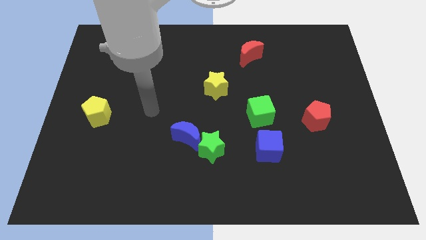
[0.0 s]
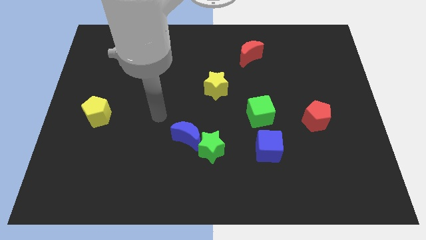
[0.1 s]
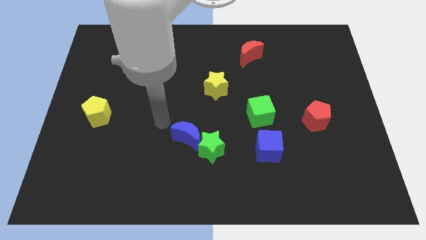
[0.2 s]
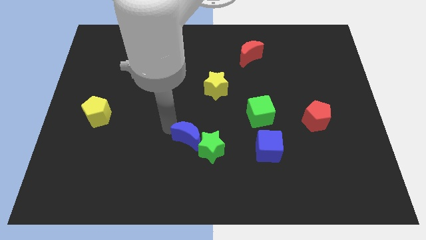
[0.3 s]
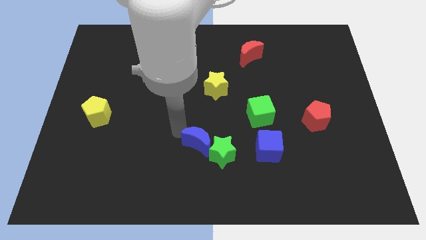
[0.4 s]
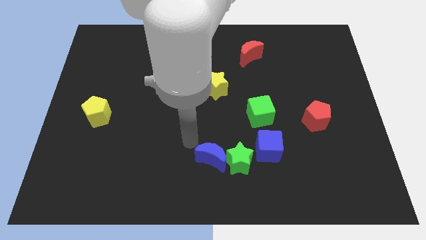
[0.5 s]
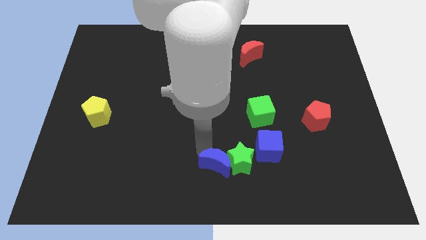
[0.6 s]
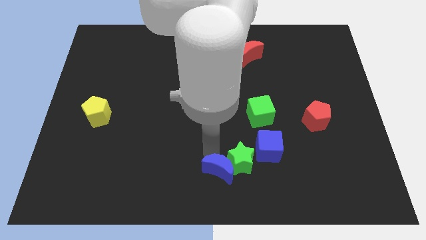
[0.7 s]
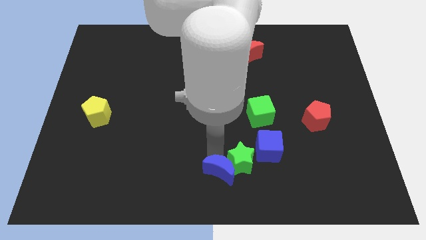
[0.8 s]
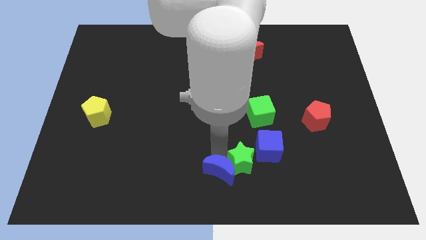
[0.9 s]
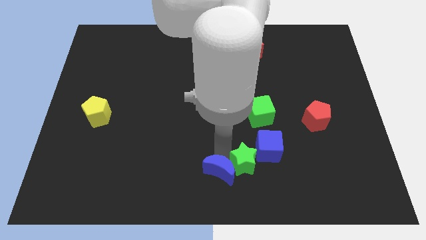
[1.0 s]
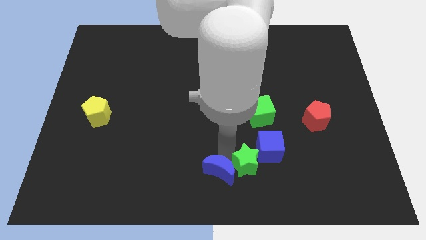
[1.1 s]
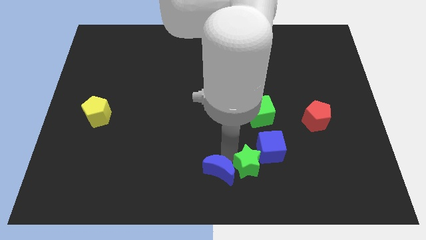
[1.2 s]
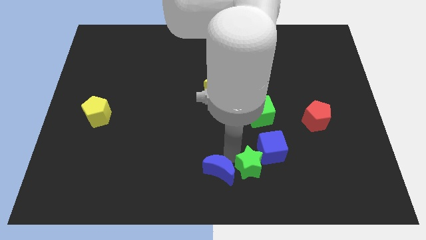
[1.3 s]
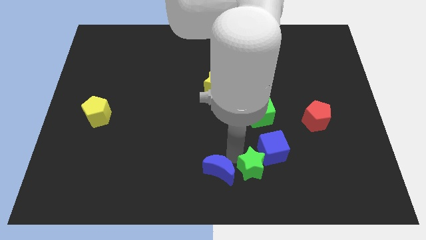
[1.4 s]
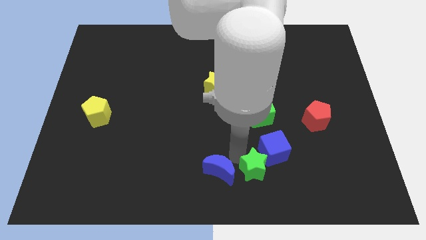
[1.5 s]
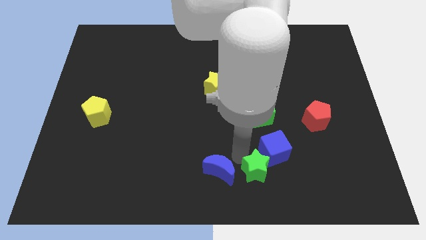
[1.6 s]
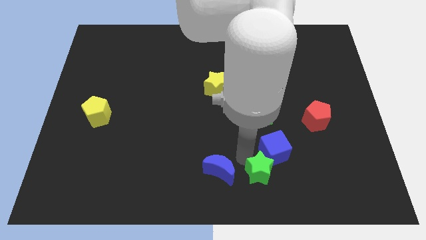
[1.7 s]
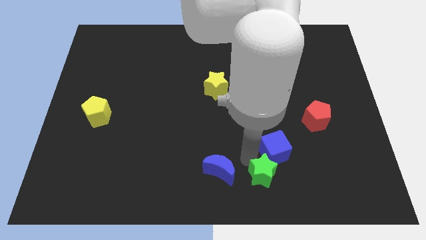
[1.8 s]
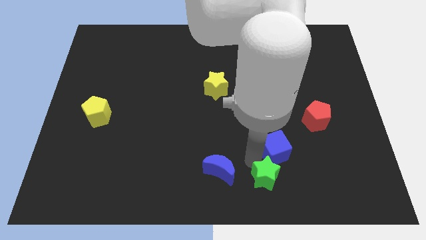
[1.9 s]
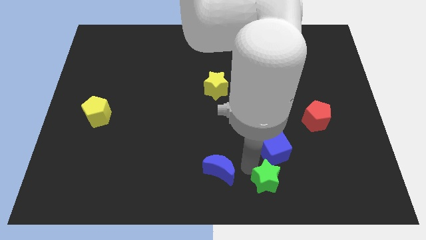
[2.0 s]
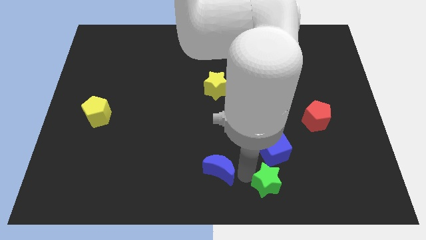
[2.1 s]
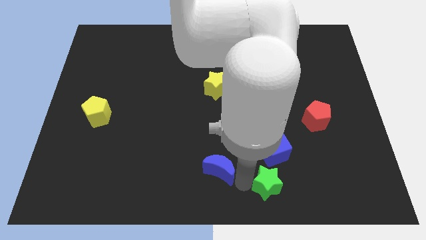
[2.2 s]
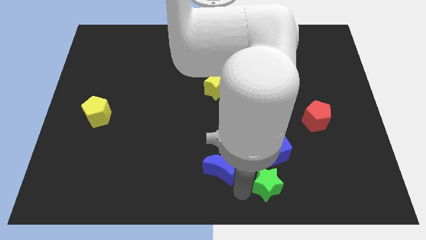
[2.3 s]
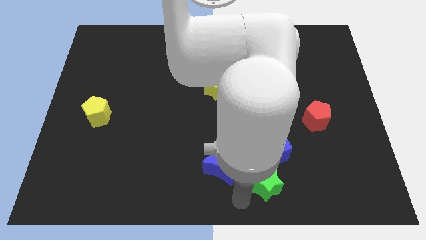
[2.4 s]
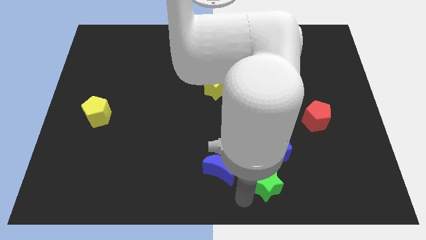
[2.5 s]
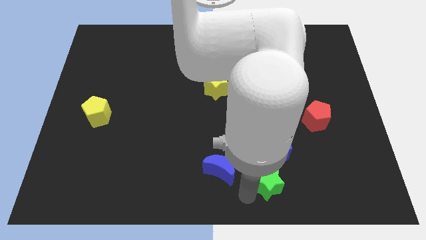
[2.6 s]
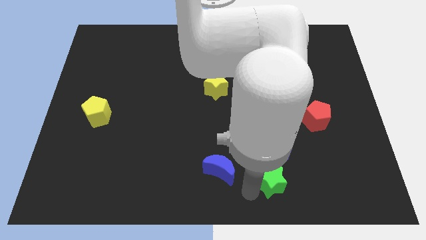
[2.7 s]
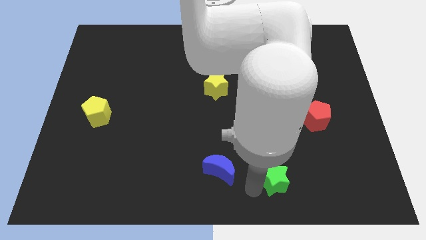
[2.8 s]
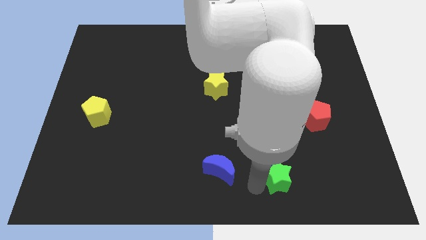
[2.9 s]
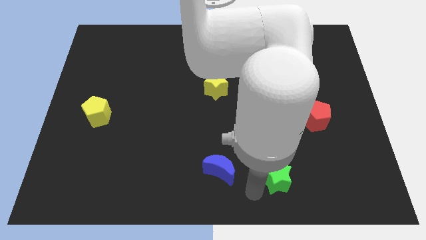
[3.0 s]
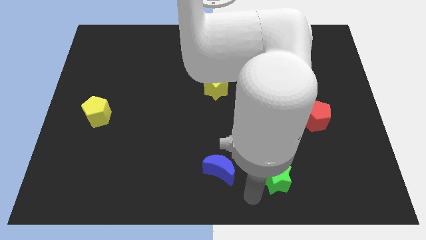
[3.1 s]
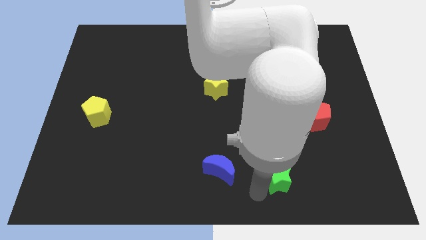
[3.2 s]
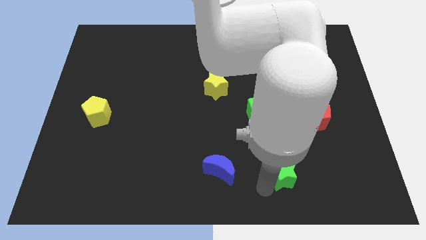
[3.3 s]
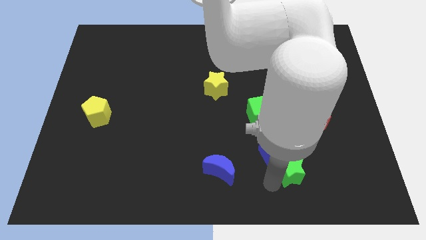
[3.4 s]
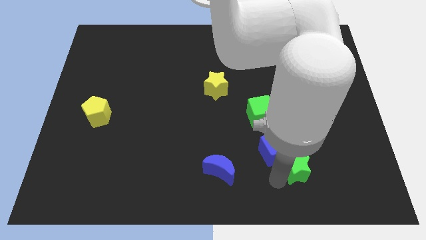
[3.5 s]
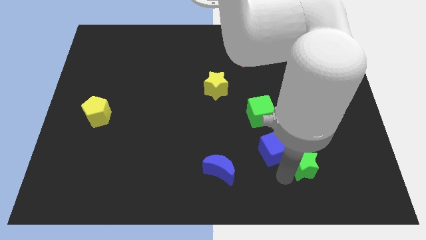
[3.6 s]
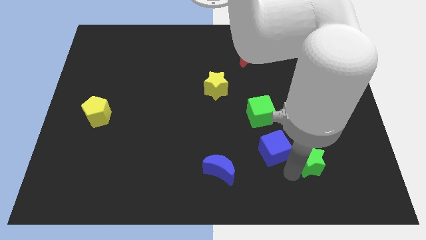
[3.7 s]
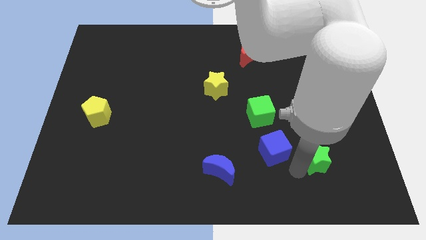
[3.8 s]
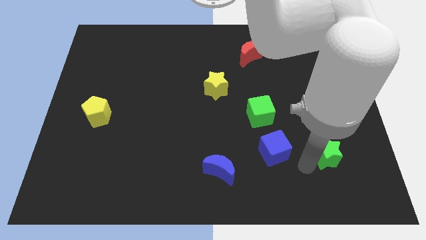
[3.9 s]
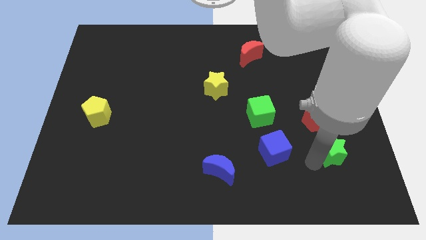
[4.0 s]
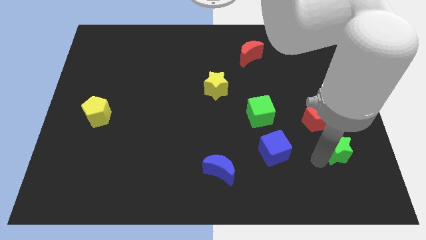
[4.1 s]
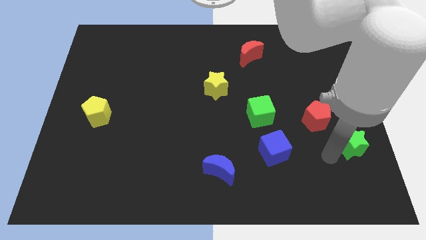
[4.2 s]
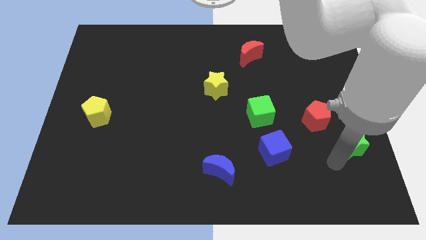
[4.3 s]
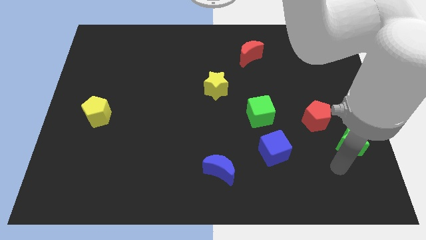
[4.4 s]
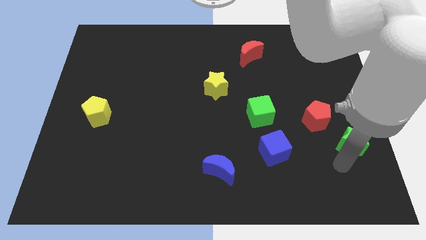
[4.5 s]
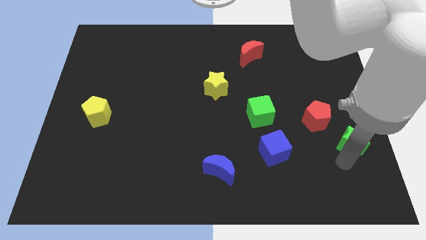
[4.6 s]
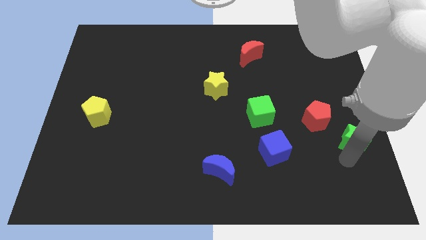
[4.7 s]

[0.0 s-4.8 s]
move the green star to the center right

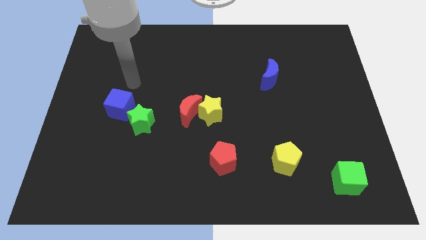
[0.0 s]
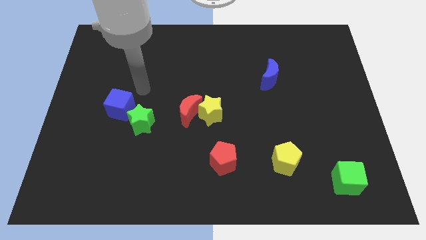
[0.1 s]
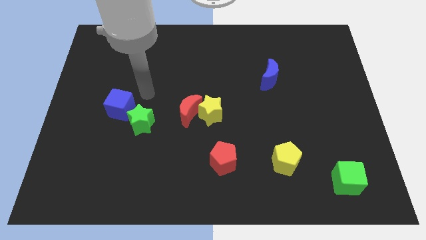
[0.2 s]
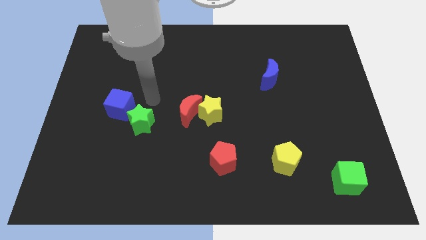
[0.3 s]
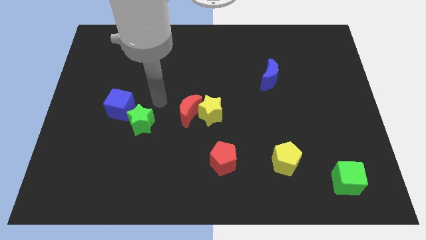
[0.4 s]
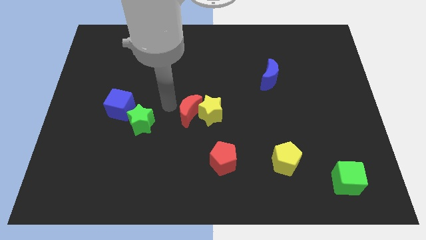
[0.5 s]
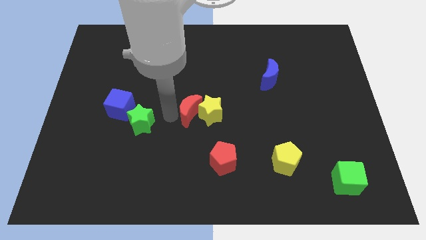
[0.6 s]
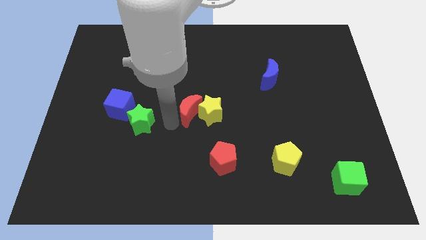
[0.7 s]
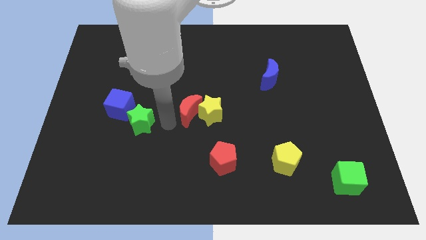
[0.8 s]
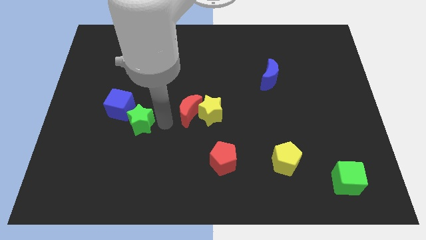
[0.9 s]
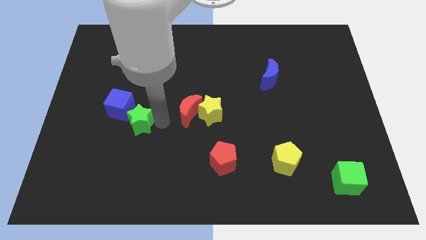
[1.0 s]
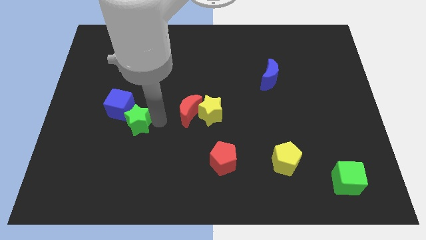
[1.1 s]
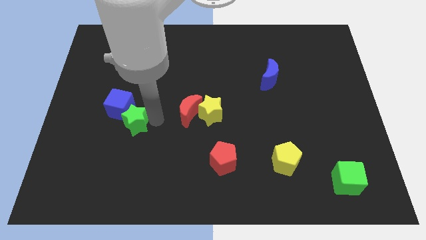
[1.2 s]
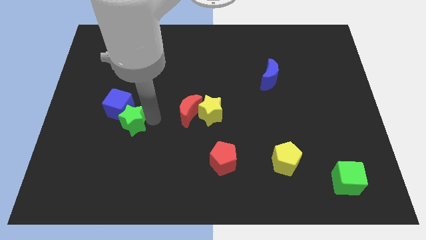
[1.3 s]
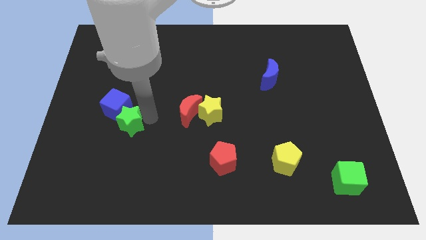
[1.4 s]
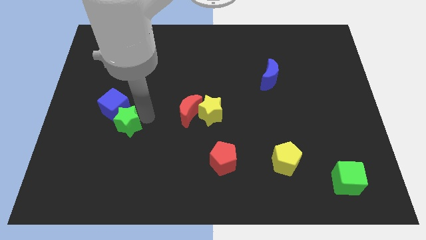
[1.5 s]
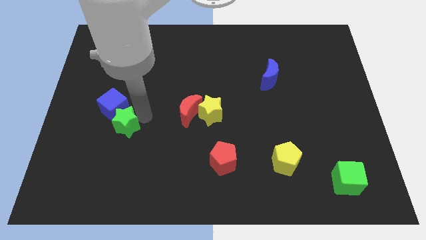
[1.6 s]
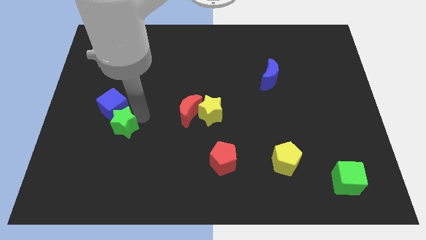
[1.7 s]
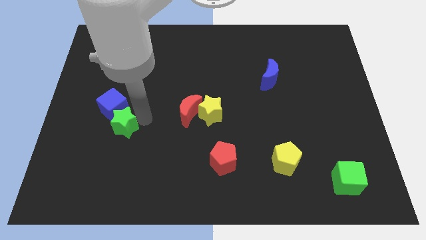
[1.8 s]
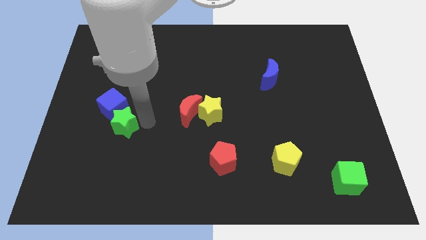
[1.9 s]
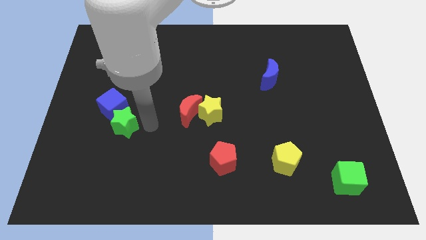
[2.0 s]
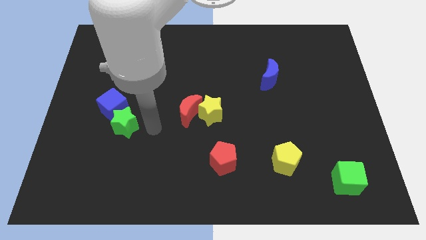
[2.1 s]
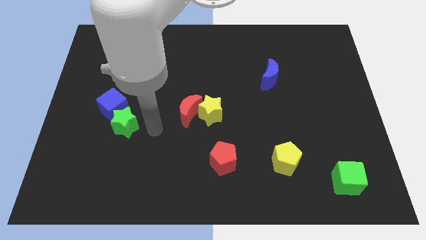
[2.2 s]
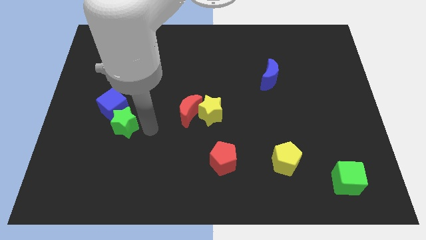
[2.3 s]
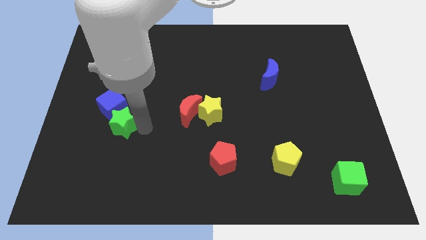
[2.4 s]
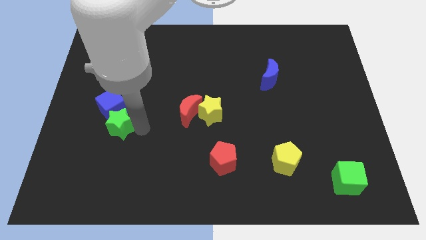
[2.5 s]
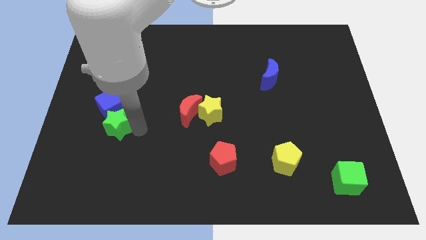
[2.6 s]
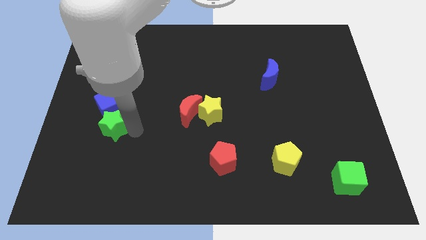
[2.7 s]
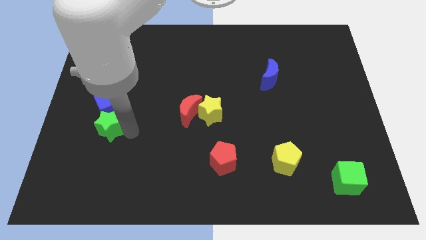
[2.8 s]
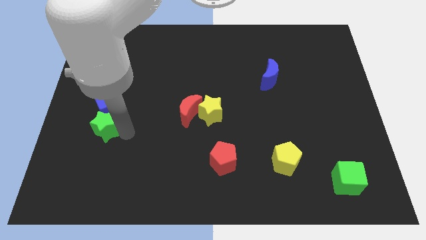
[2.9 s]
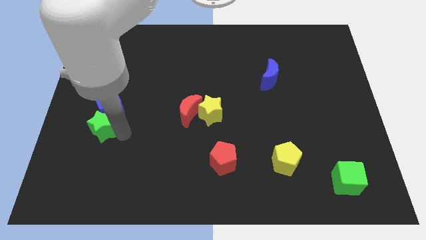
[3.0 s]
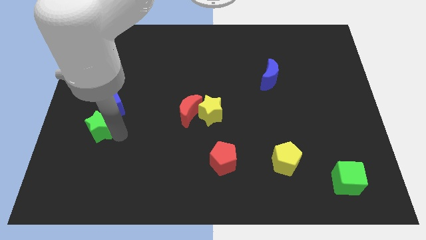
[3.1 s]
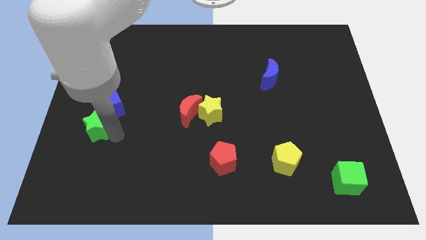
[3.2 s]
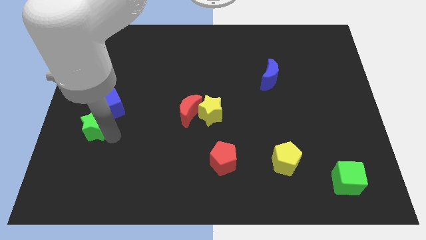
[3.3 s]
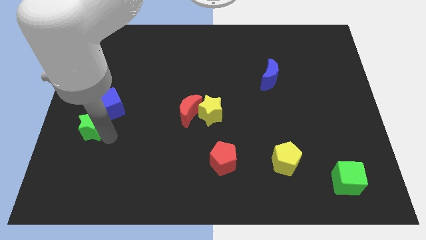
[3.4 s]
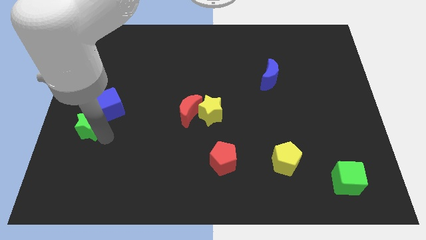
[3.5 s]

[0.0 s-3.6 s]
move the green star to the left side
